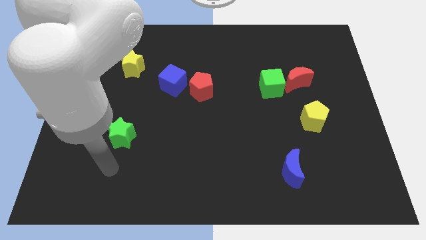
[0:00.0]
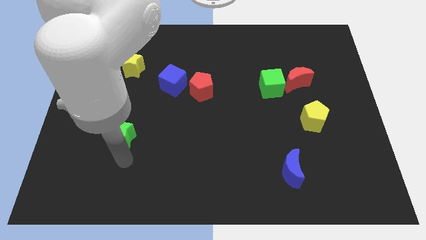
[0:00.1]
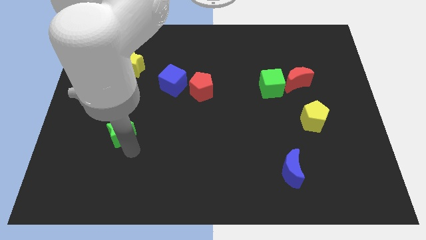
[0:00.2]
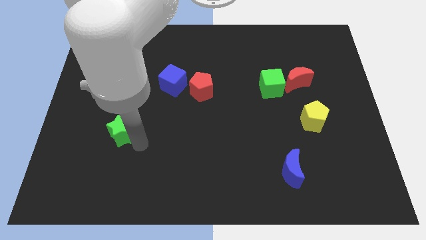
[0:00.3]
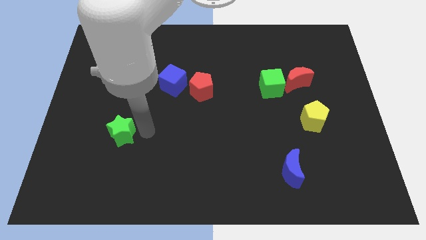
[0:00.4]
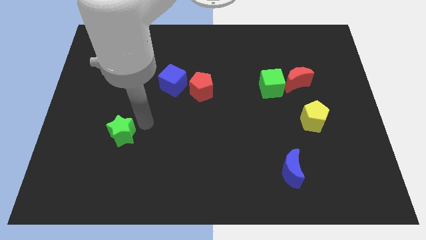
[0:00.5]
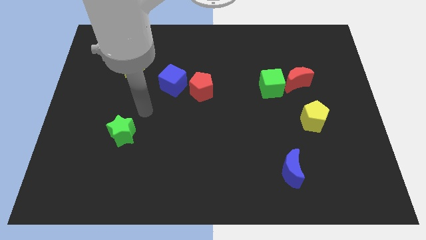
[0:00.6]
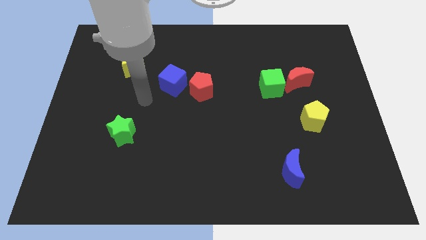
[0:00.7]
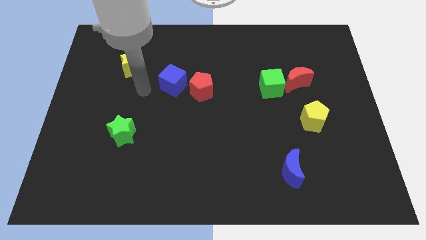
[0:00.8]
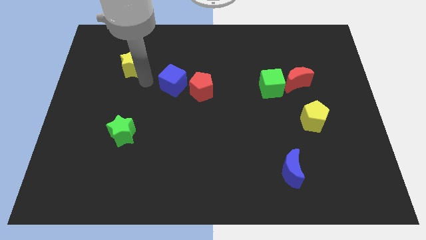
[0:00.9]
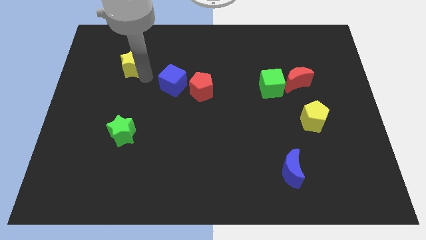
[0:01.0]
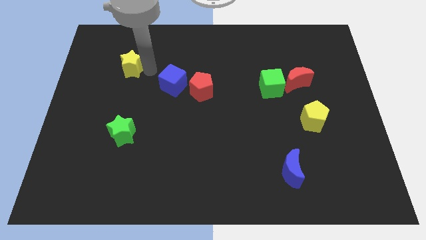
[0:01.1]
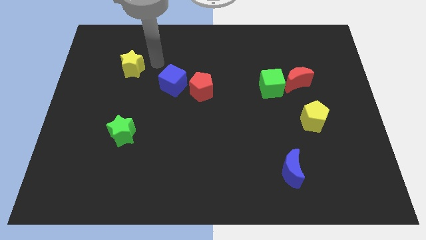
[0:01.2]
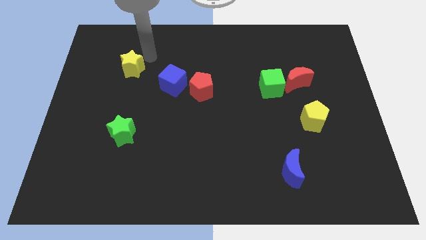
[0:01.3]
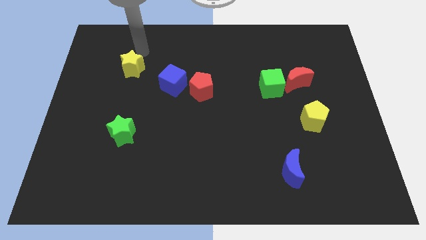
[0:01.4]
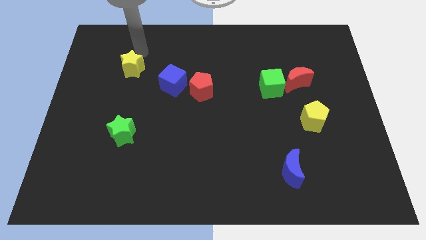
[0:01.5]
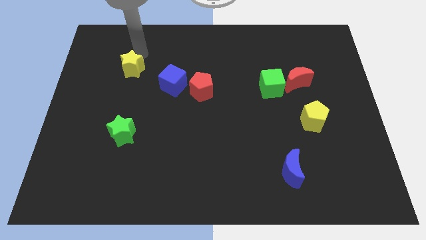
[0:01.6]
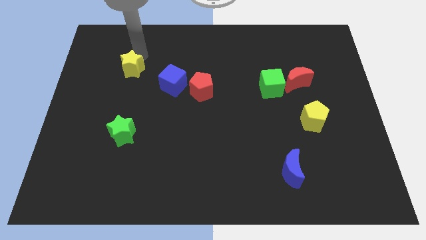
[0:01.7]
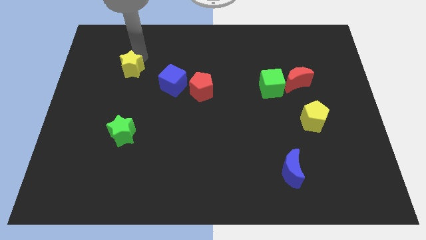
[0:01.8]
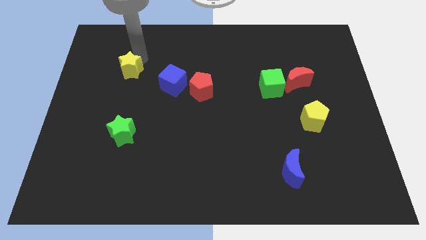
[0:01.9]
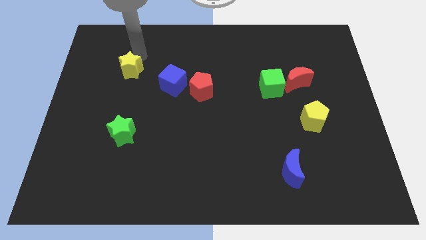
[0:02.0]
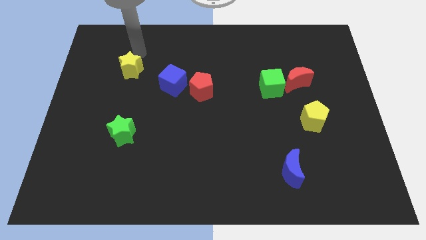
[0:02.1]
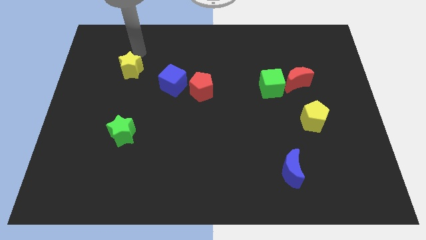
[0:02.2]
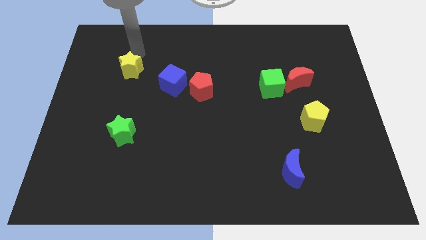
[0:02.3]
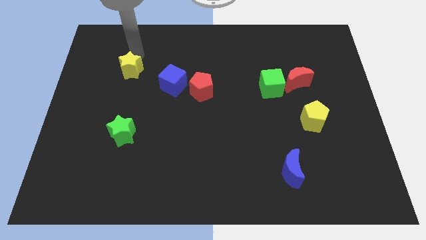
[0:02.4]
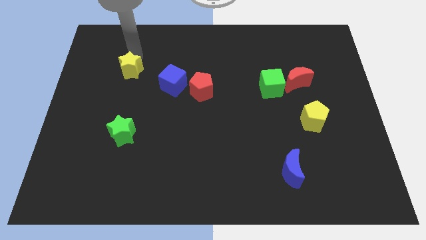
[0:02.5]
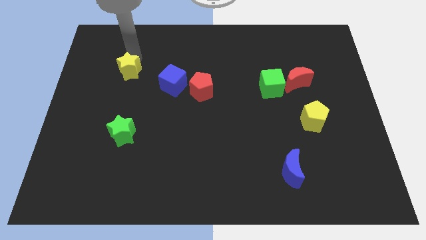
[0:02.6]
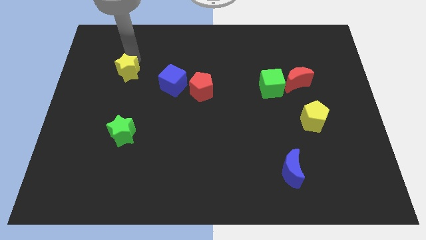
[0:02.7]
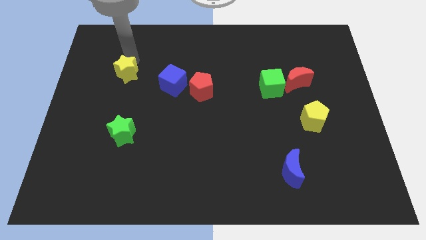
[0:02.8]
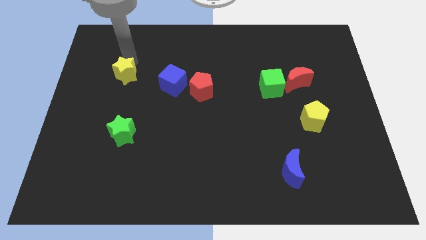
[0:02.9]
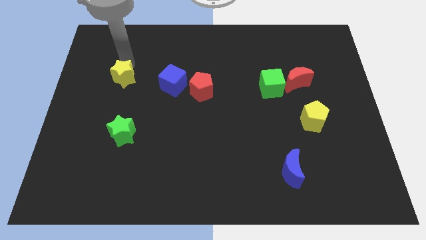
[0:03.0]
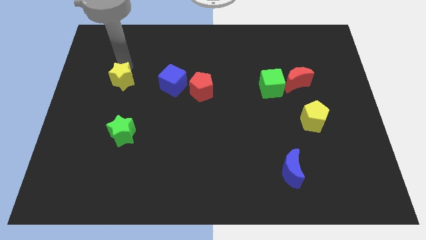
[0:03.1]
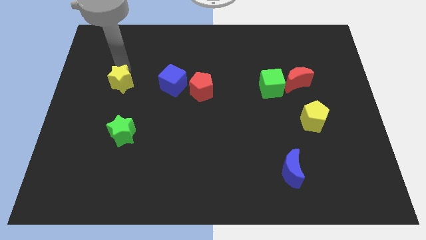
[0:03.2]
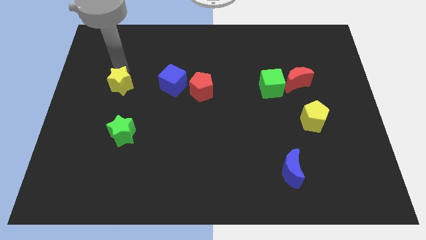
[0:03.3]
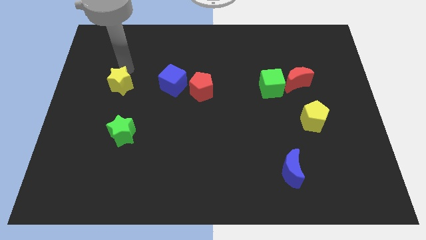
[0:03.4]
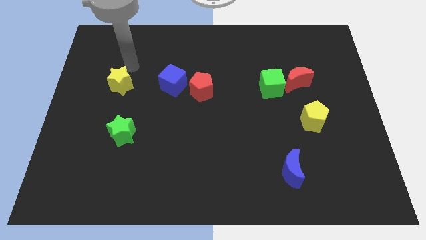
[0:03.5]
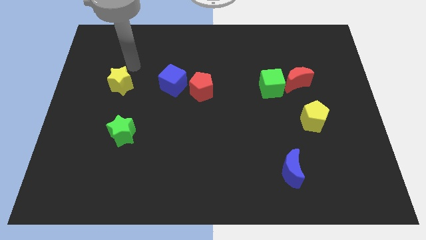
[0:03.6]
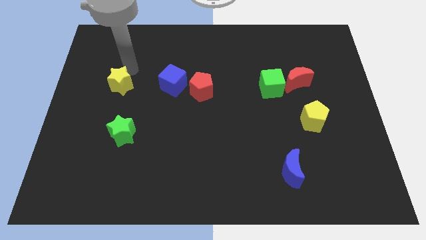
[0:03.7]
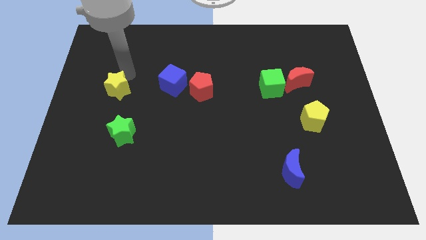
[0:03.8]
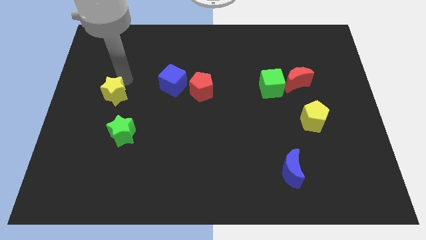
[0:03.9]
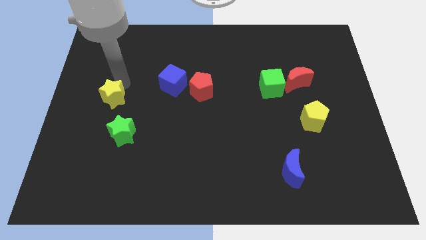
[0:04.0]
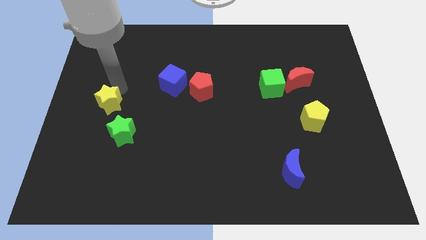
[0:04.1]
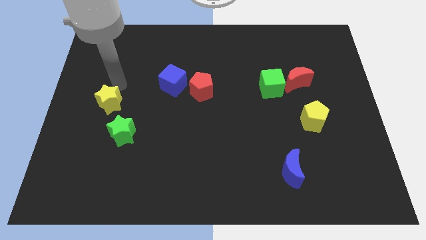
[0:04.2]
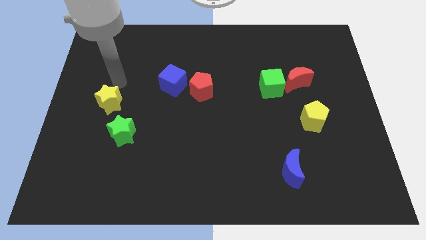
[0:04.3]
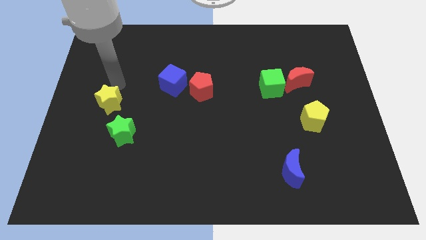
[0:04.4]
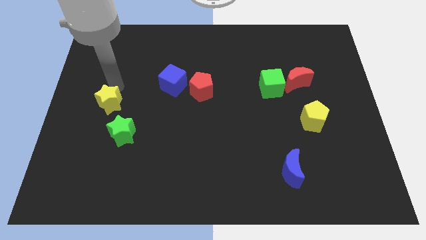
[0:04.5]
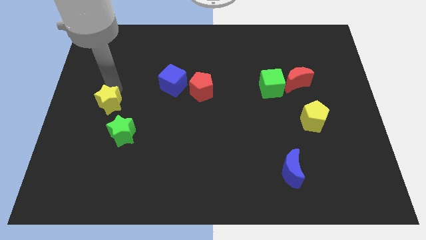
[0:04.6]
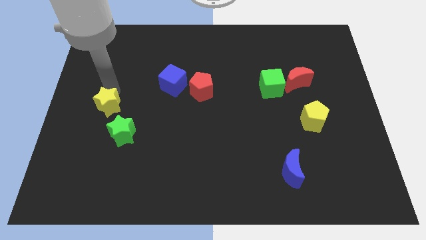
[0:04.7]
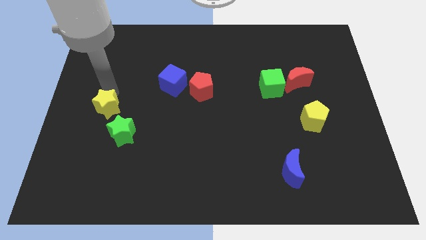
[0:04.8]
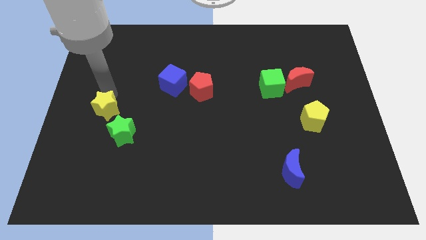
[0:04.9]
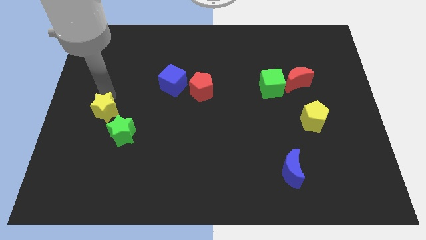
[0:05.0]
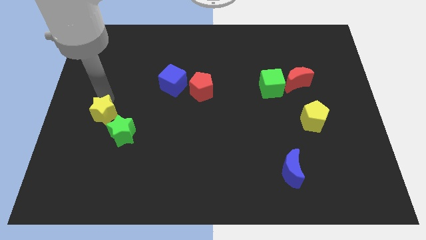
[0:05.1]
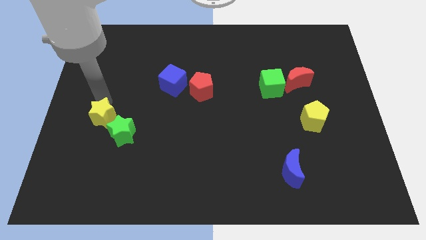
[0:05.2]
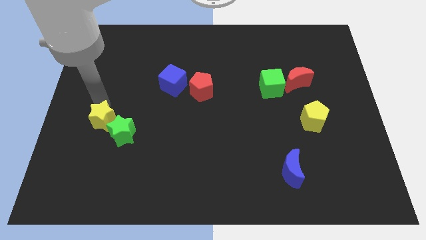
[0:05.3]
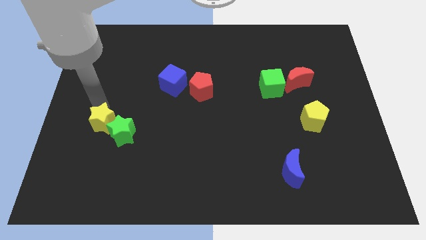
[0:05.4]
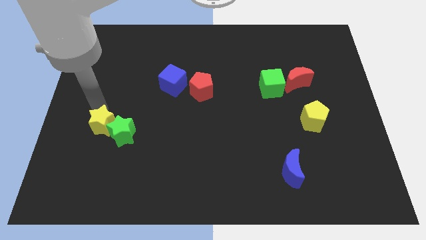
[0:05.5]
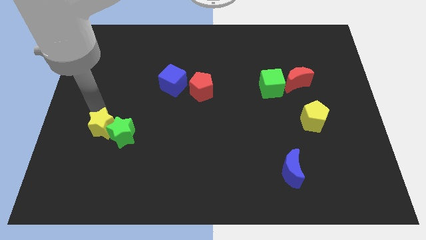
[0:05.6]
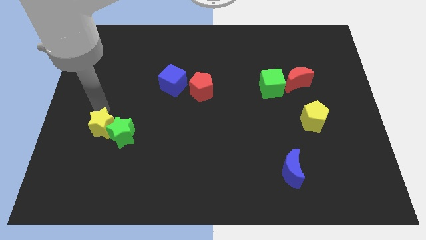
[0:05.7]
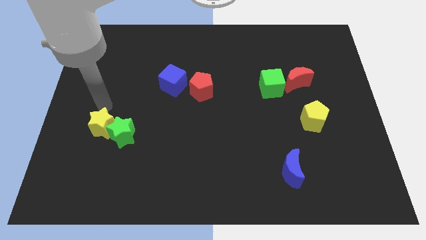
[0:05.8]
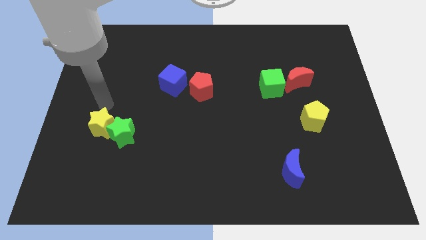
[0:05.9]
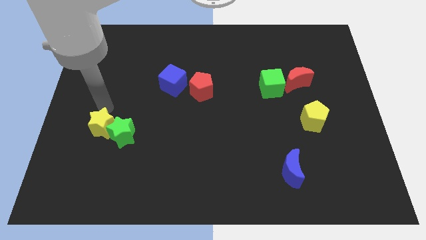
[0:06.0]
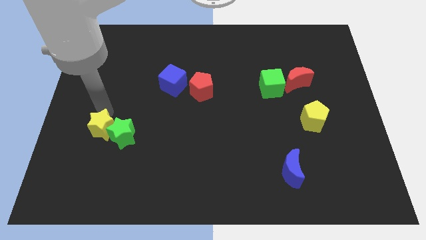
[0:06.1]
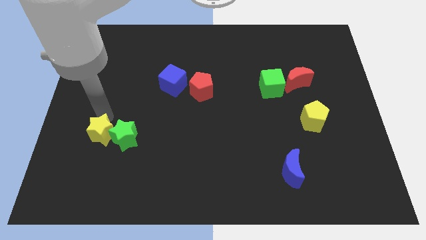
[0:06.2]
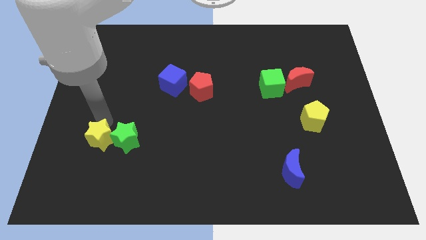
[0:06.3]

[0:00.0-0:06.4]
move the yellow star down

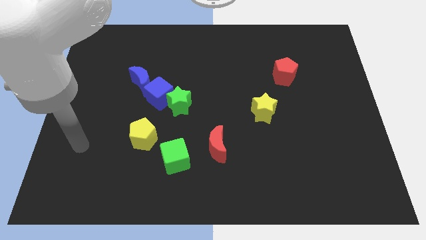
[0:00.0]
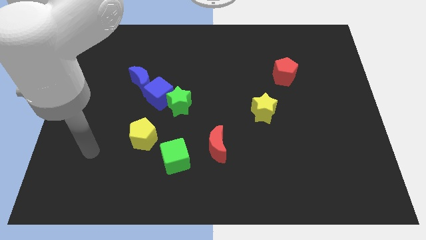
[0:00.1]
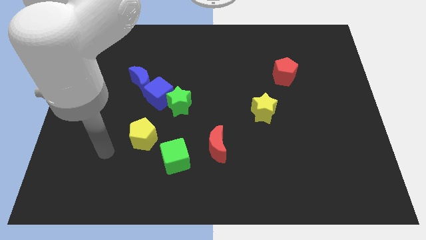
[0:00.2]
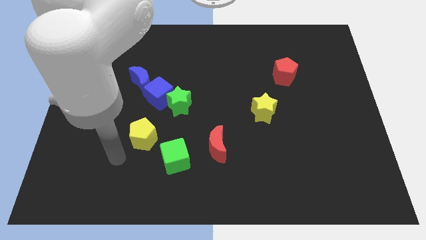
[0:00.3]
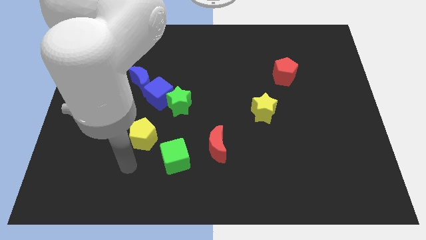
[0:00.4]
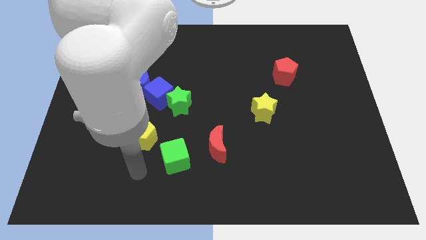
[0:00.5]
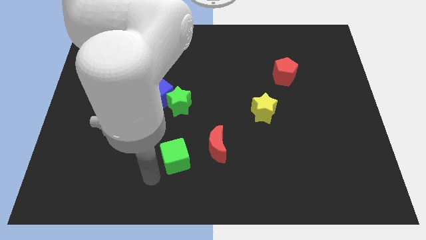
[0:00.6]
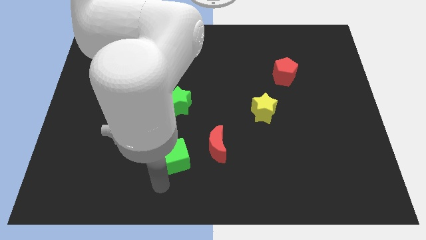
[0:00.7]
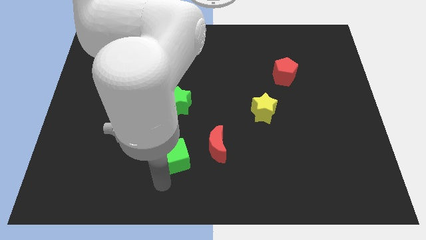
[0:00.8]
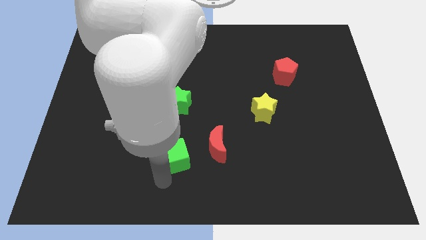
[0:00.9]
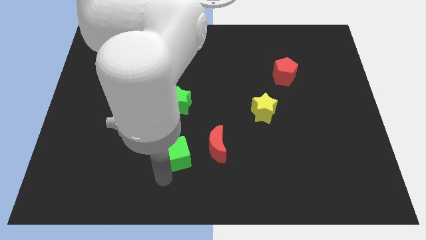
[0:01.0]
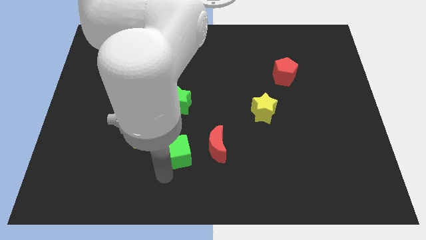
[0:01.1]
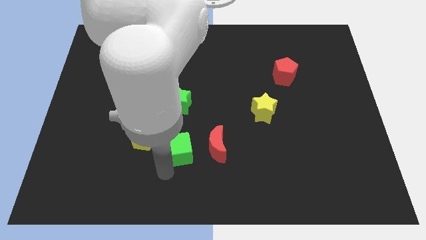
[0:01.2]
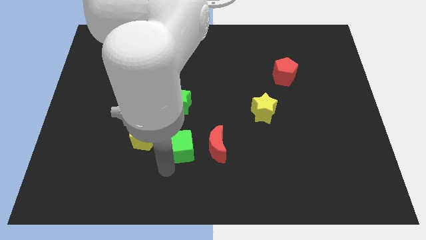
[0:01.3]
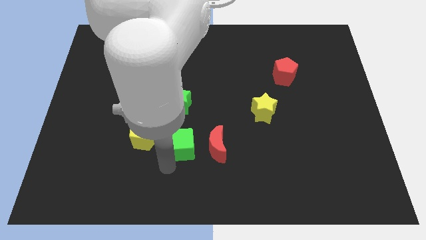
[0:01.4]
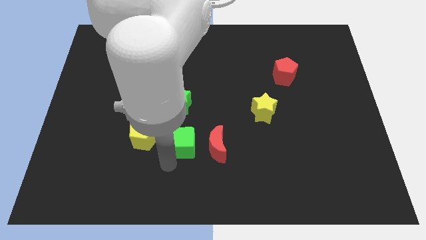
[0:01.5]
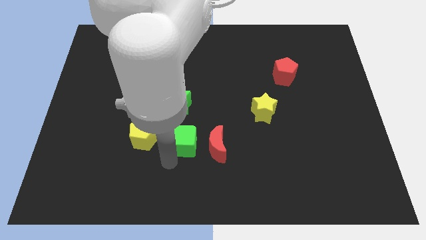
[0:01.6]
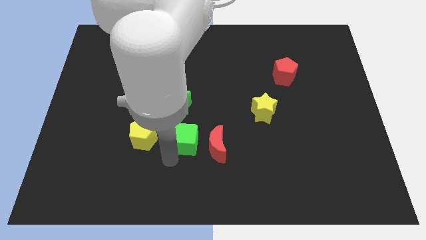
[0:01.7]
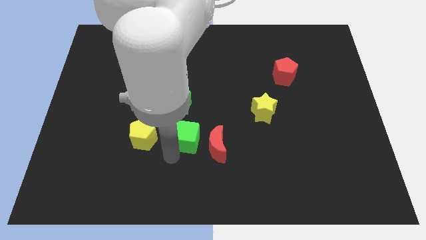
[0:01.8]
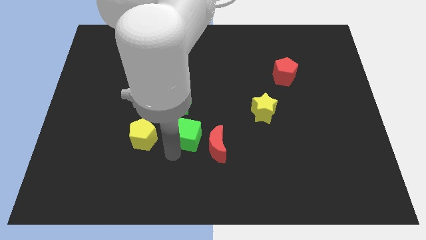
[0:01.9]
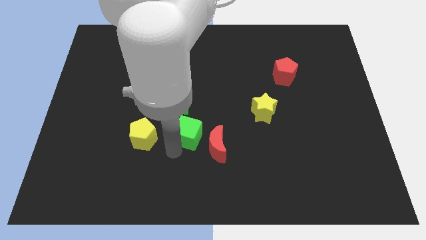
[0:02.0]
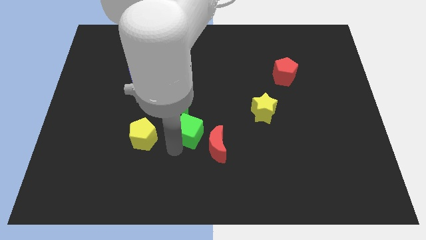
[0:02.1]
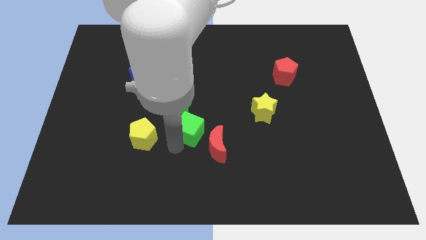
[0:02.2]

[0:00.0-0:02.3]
slide the green cube somewhat up
